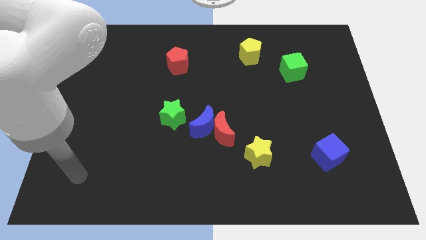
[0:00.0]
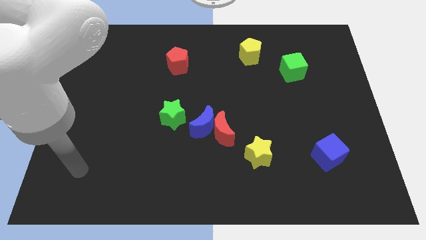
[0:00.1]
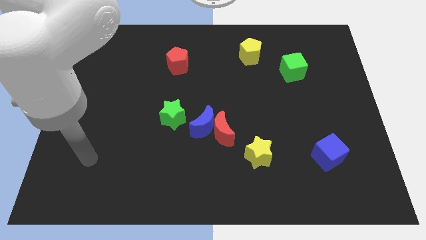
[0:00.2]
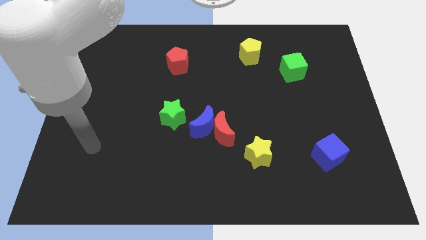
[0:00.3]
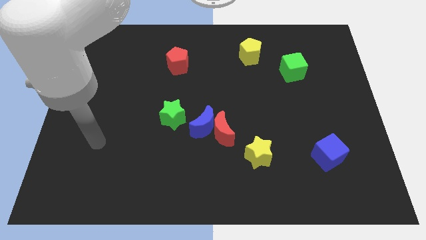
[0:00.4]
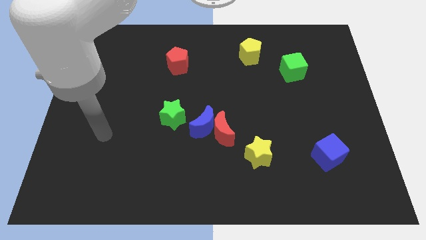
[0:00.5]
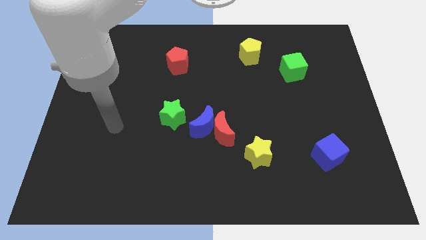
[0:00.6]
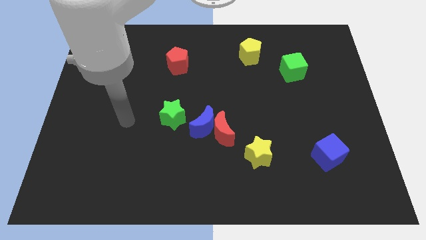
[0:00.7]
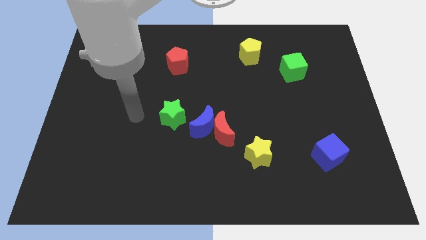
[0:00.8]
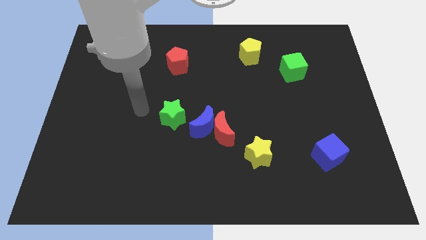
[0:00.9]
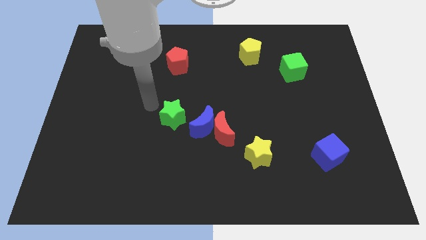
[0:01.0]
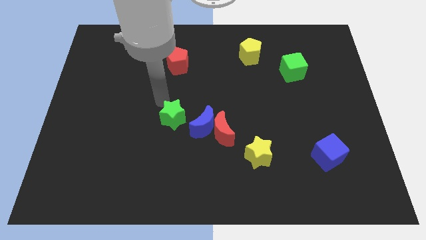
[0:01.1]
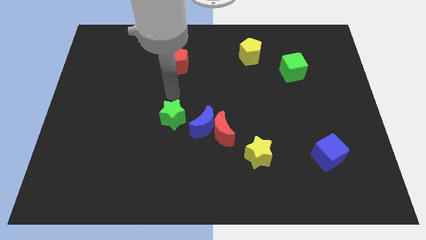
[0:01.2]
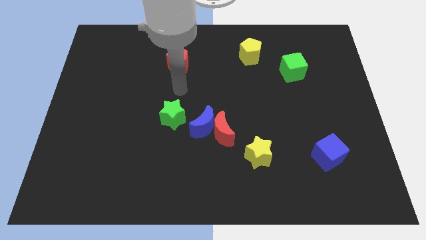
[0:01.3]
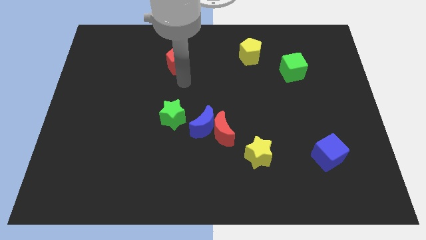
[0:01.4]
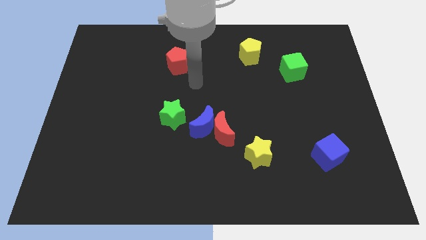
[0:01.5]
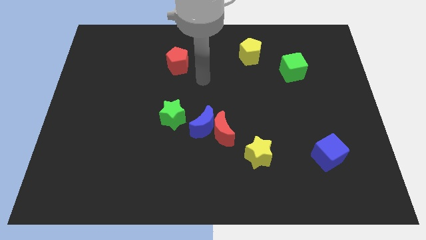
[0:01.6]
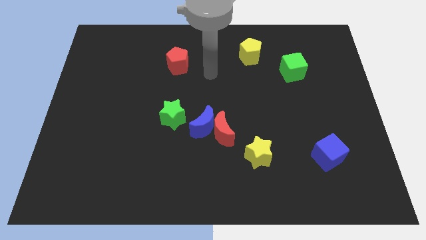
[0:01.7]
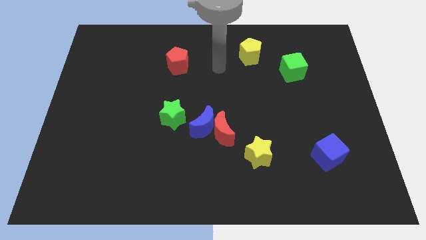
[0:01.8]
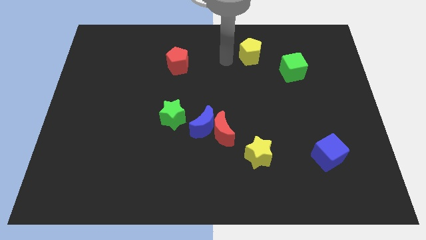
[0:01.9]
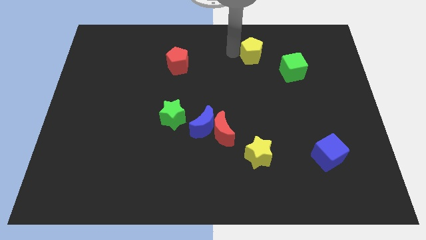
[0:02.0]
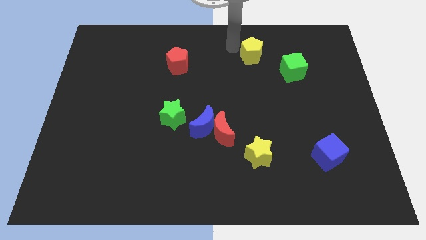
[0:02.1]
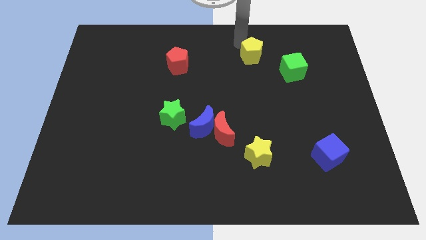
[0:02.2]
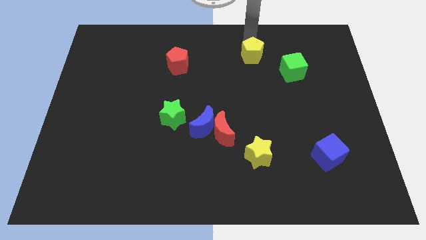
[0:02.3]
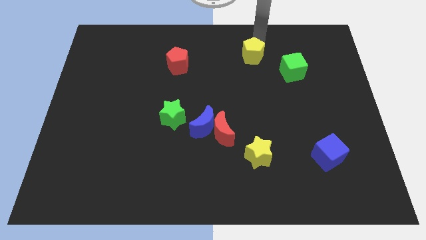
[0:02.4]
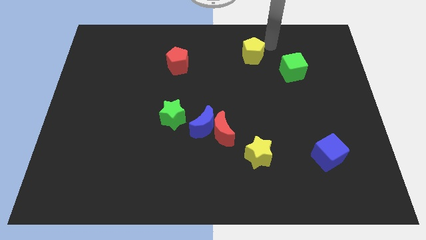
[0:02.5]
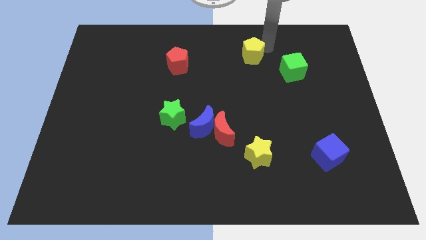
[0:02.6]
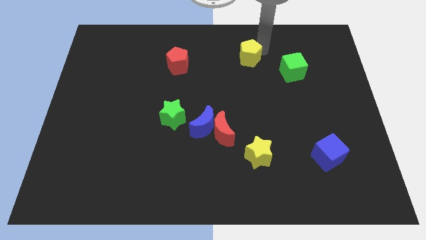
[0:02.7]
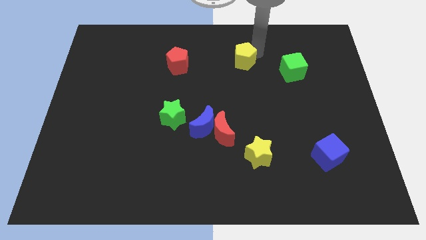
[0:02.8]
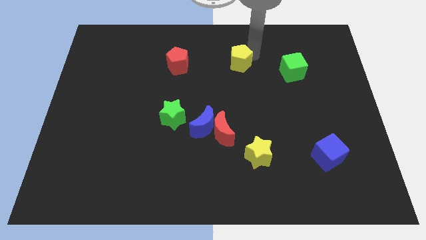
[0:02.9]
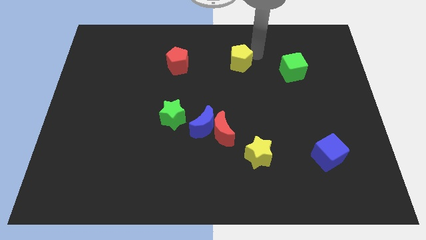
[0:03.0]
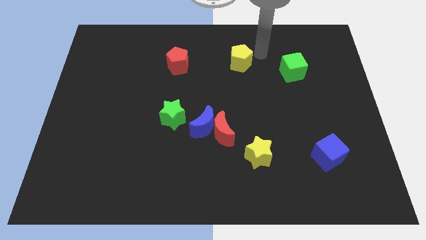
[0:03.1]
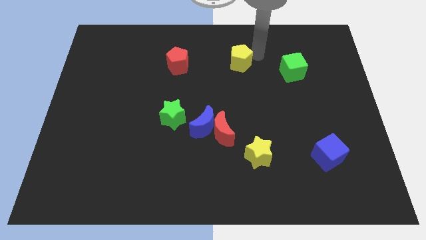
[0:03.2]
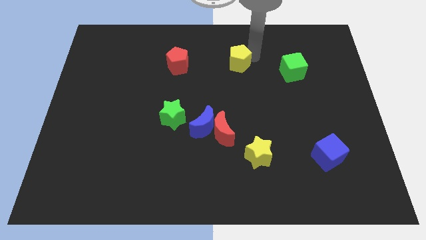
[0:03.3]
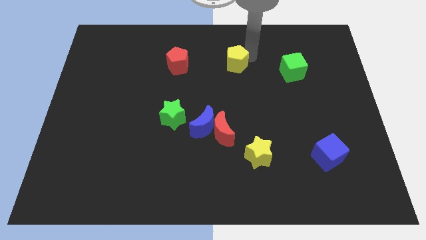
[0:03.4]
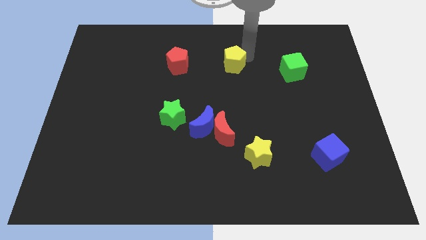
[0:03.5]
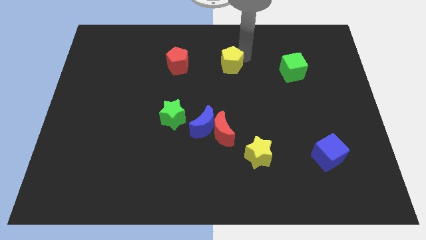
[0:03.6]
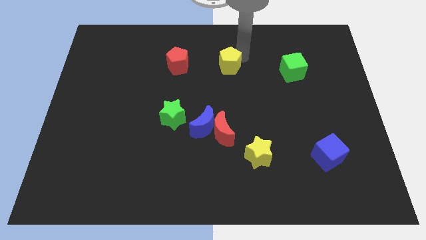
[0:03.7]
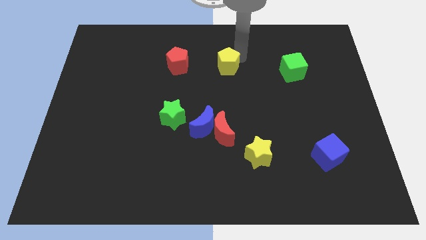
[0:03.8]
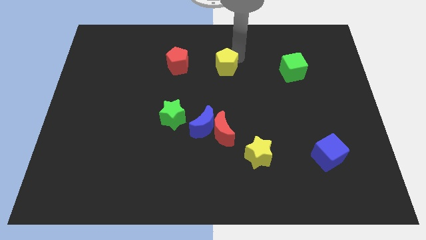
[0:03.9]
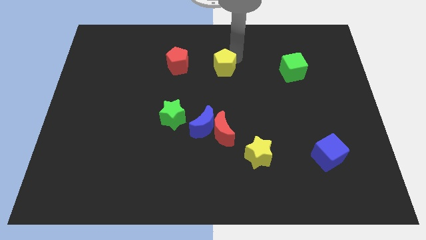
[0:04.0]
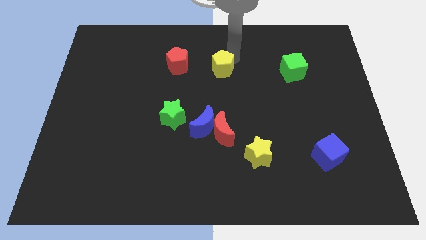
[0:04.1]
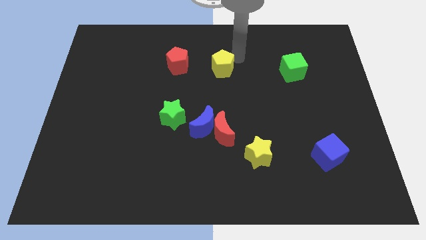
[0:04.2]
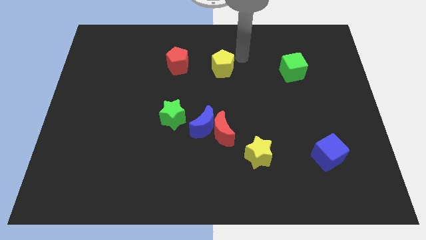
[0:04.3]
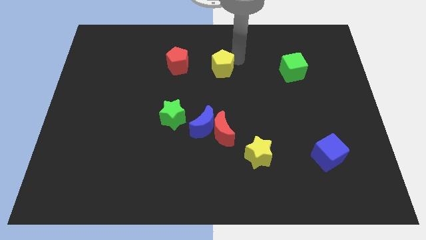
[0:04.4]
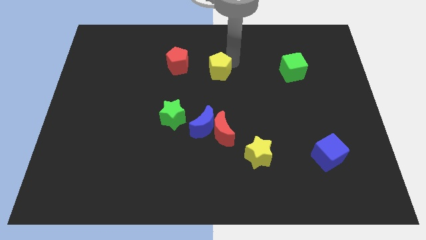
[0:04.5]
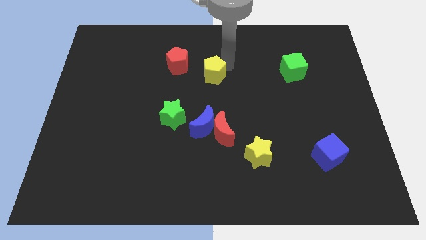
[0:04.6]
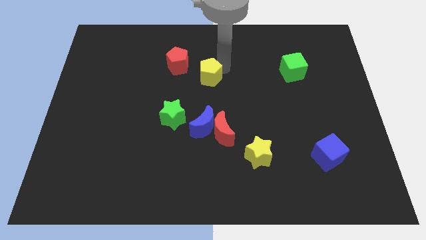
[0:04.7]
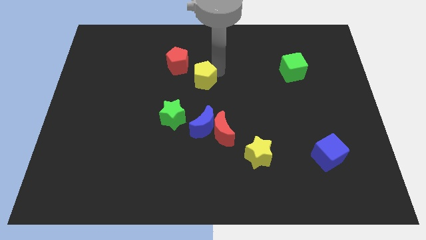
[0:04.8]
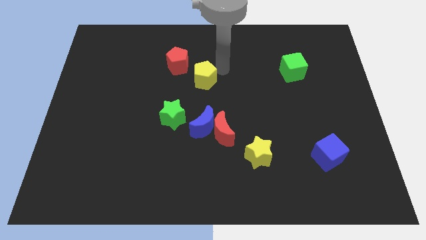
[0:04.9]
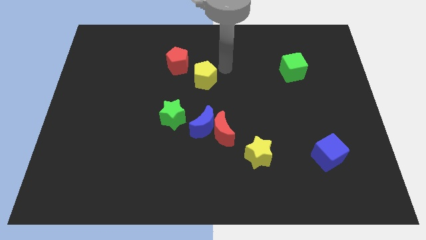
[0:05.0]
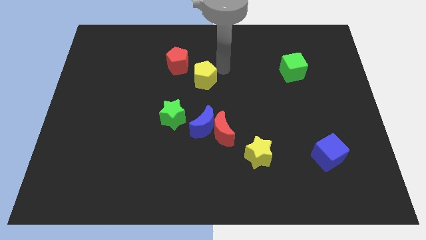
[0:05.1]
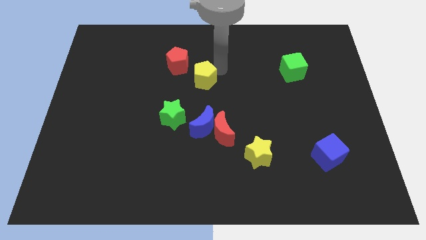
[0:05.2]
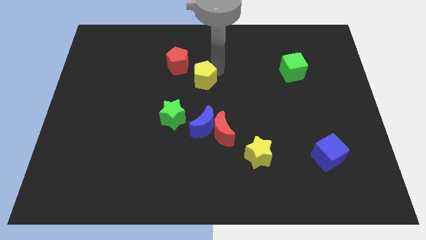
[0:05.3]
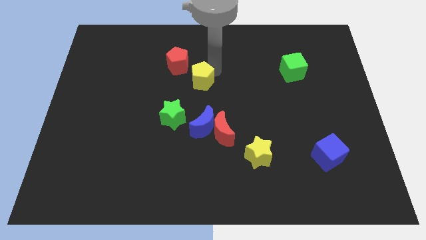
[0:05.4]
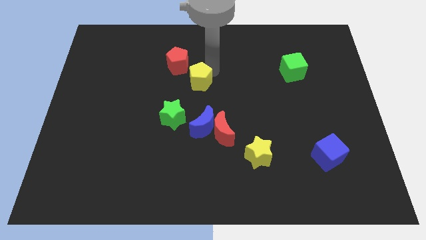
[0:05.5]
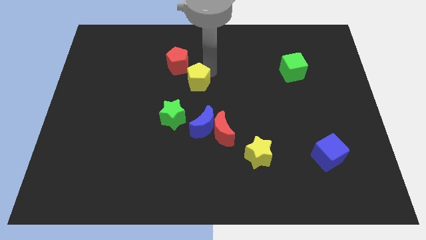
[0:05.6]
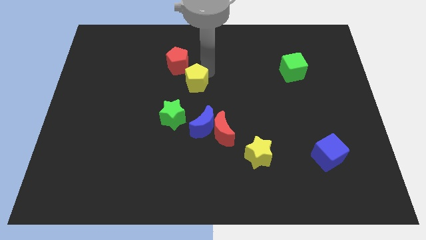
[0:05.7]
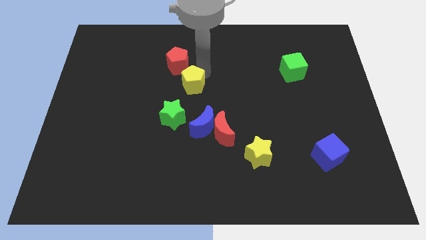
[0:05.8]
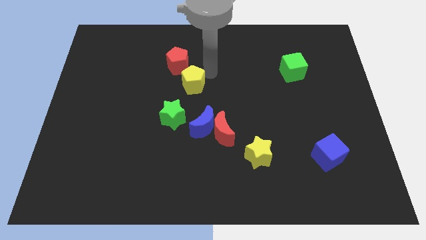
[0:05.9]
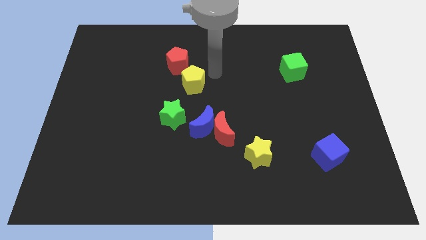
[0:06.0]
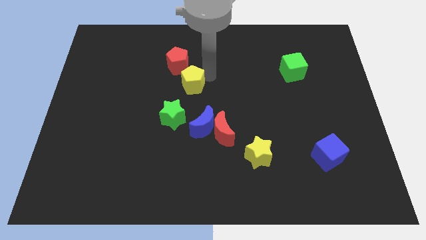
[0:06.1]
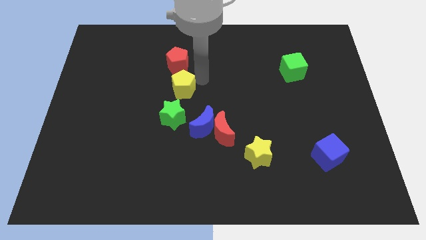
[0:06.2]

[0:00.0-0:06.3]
move the yellow pentagon downwards and left diagonally

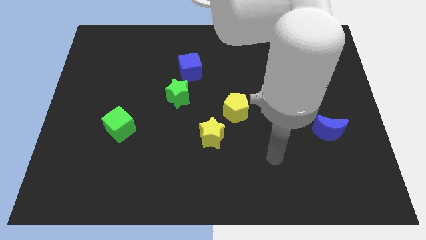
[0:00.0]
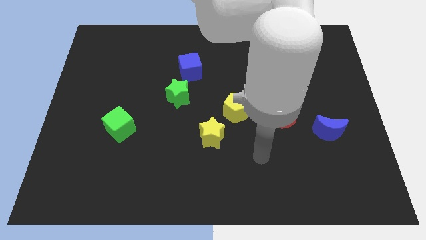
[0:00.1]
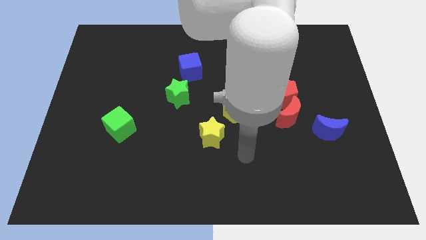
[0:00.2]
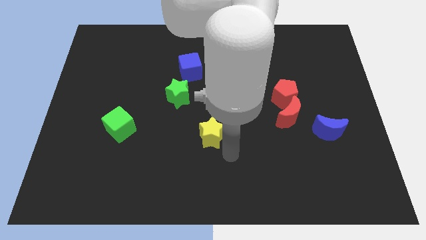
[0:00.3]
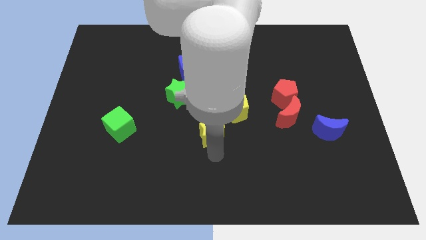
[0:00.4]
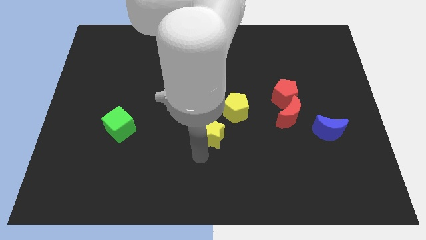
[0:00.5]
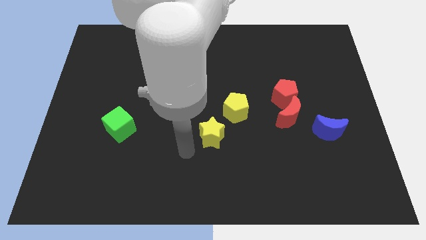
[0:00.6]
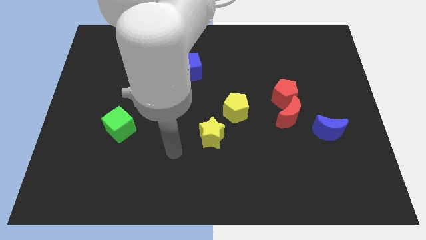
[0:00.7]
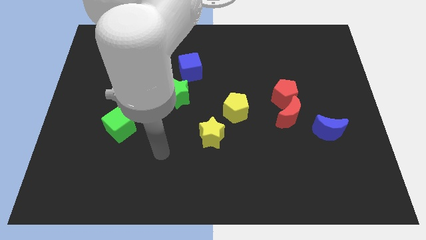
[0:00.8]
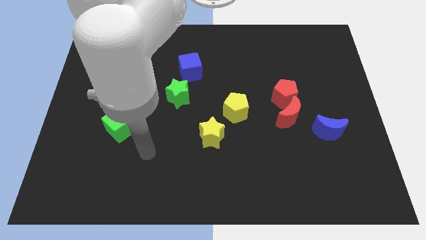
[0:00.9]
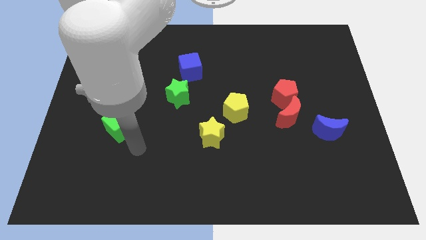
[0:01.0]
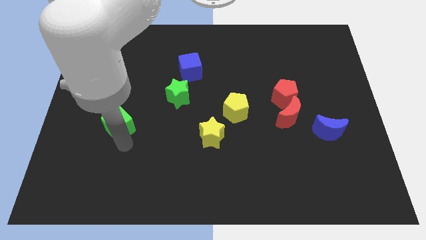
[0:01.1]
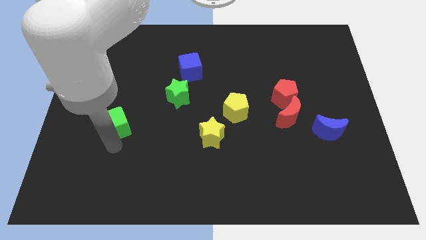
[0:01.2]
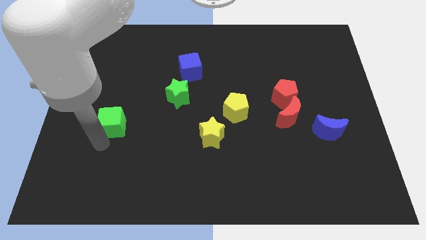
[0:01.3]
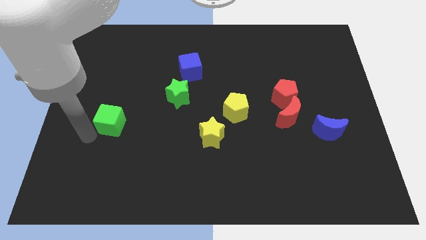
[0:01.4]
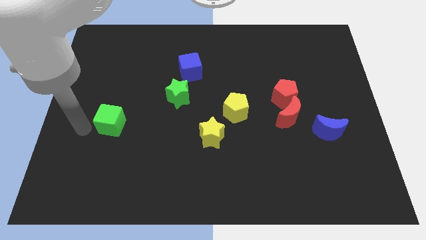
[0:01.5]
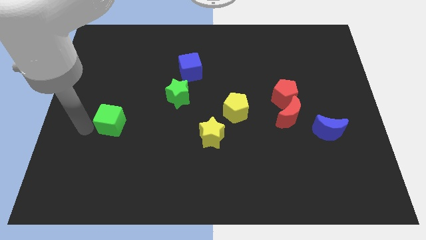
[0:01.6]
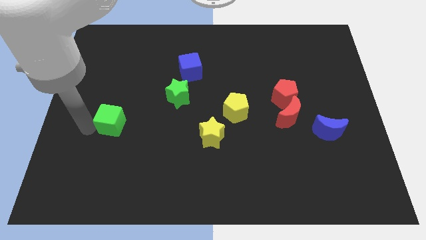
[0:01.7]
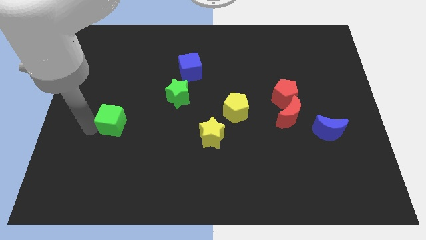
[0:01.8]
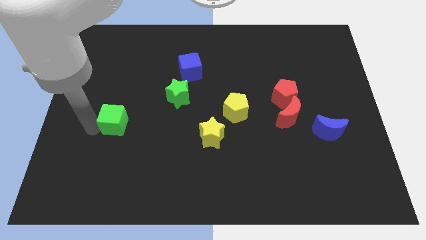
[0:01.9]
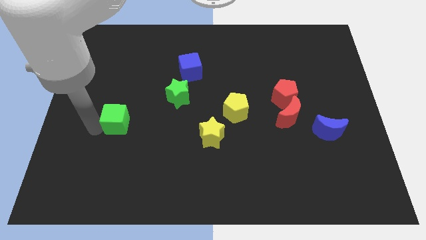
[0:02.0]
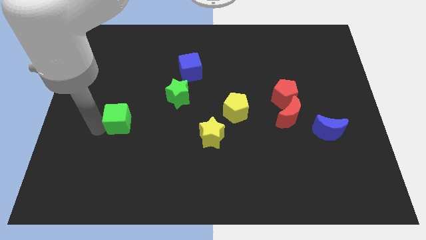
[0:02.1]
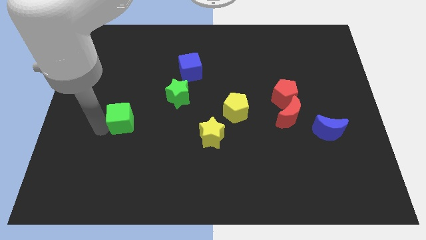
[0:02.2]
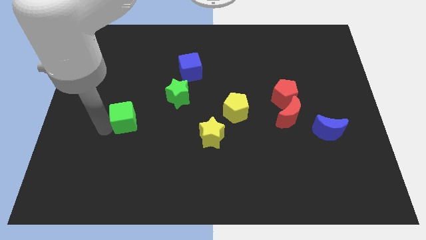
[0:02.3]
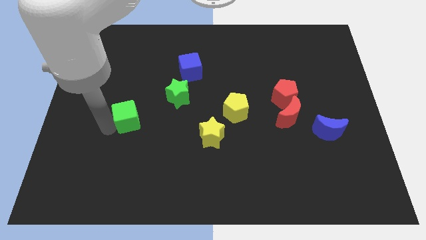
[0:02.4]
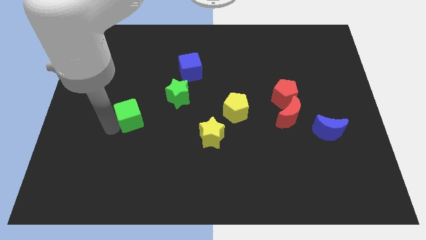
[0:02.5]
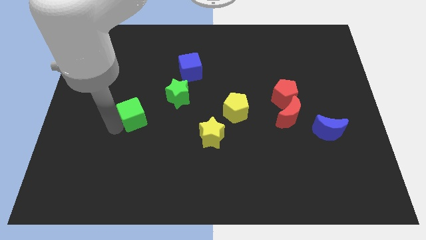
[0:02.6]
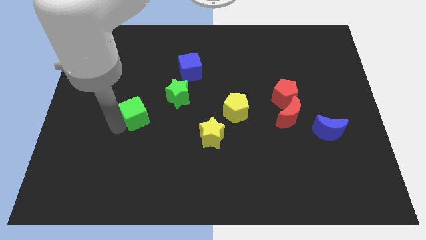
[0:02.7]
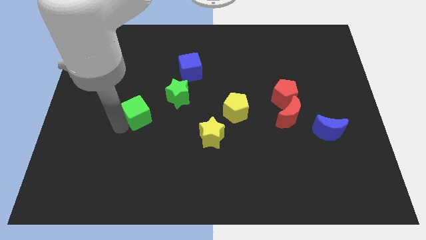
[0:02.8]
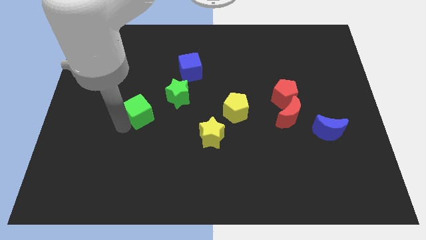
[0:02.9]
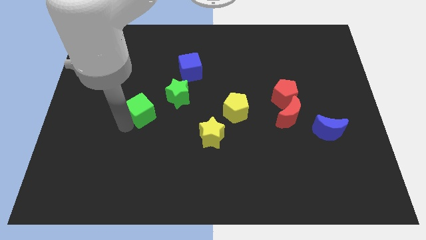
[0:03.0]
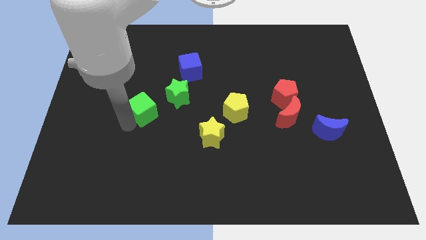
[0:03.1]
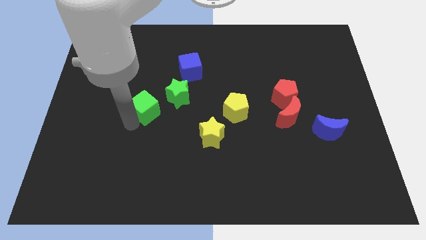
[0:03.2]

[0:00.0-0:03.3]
push the green cube somewhat upwards and to the right
